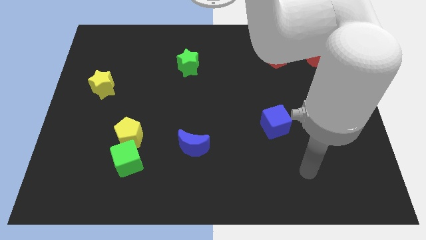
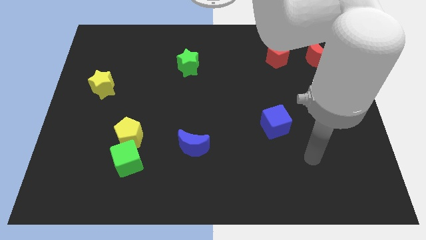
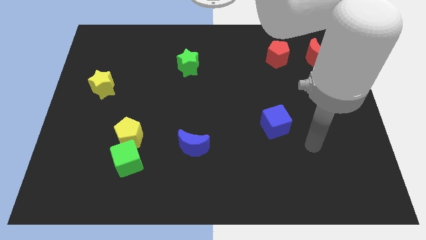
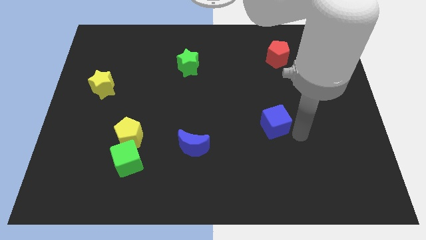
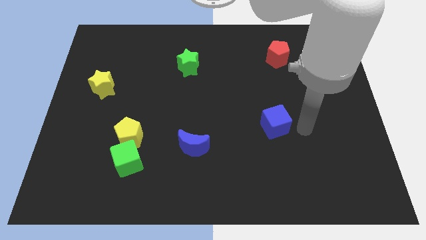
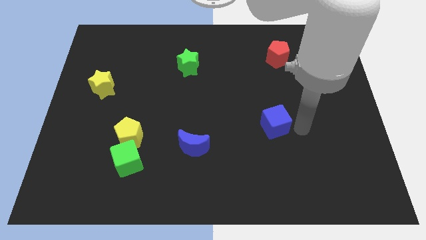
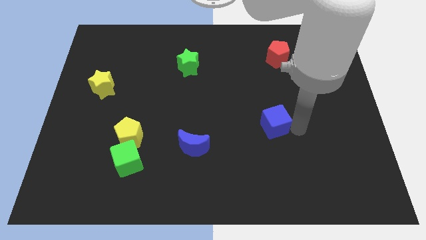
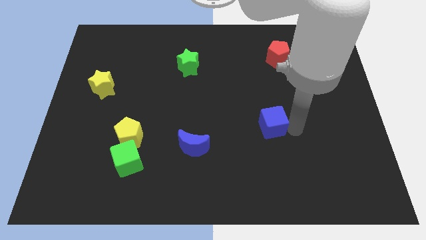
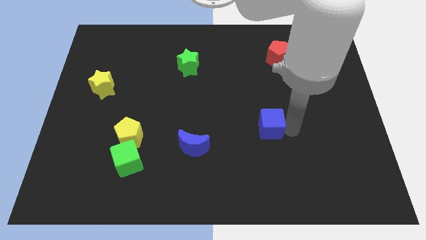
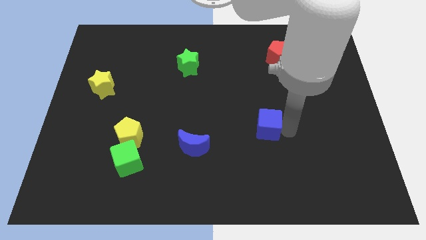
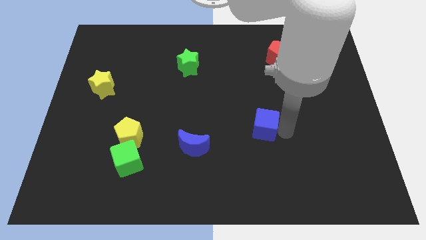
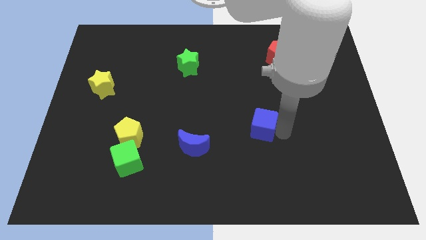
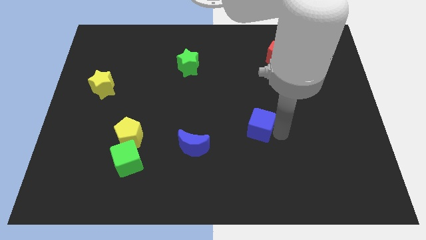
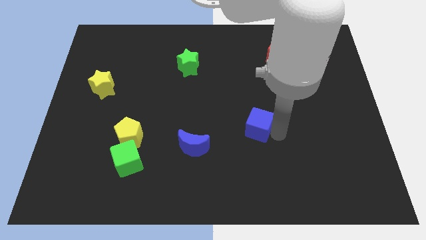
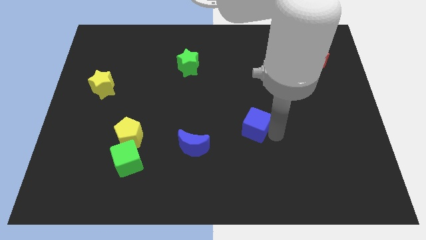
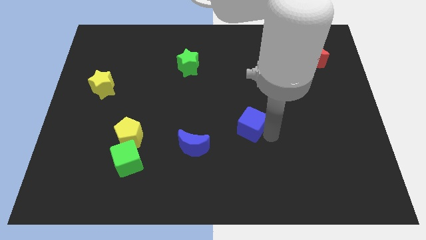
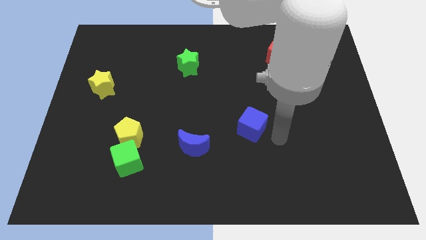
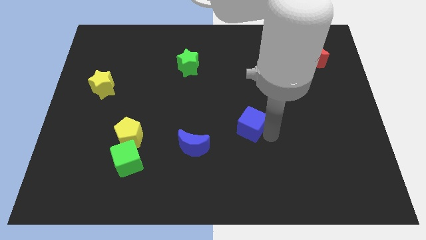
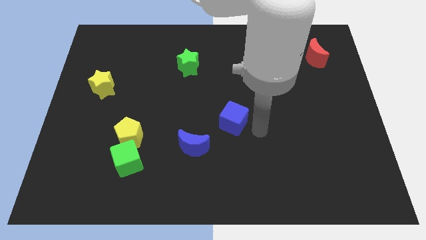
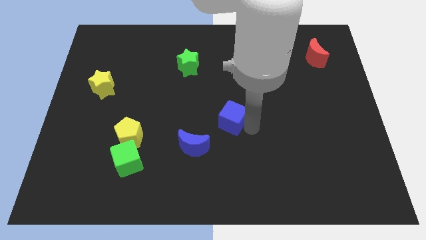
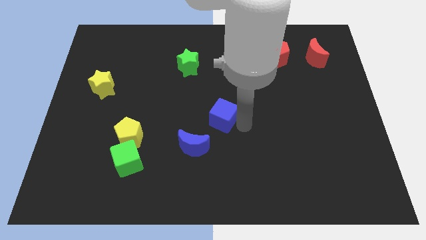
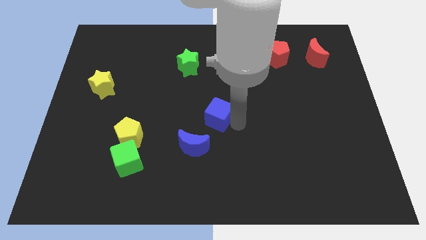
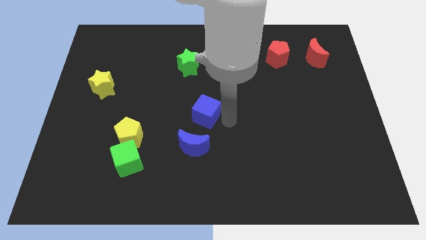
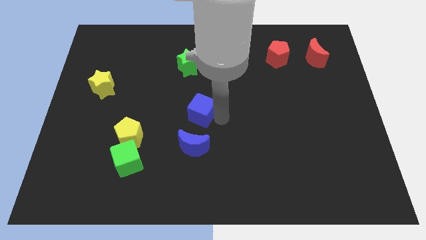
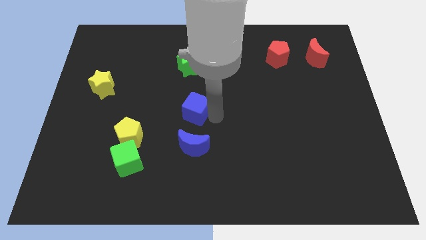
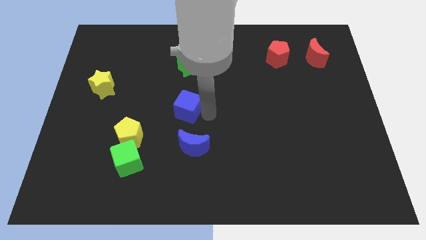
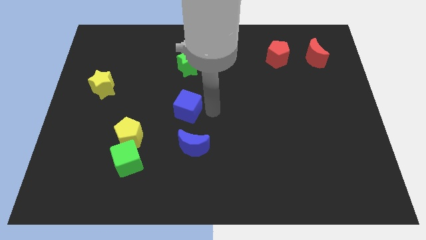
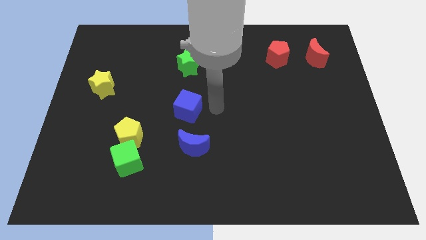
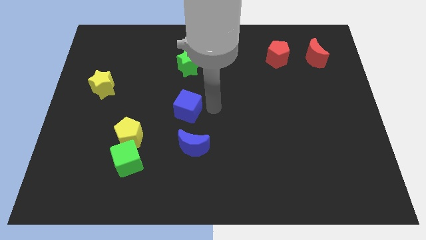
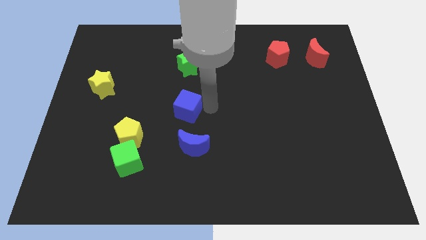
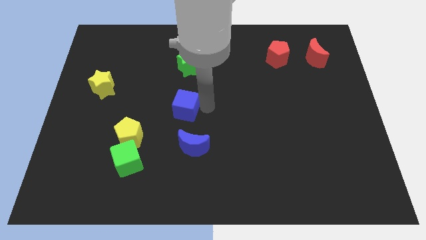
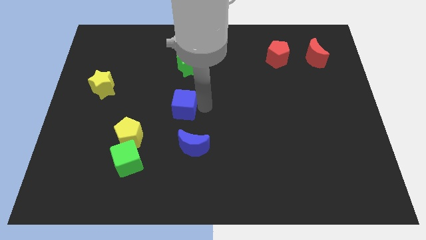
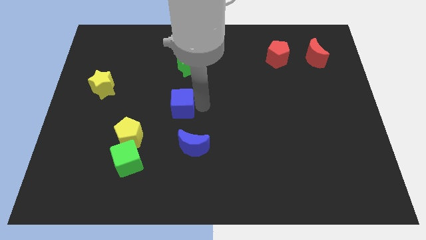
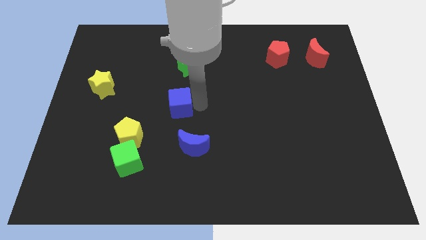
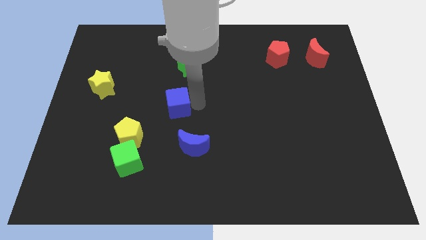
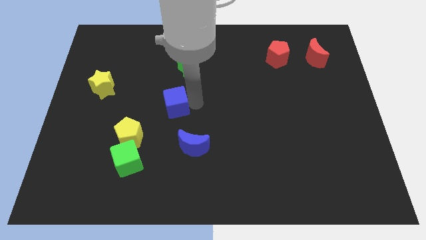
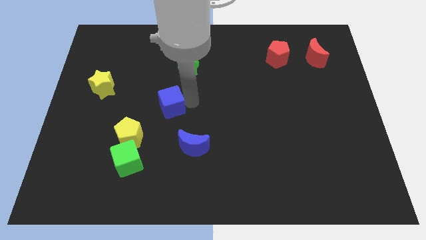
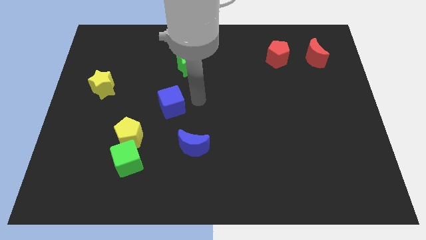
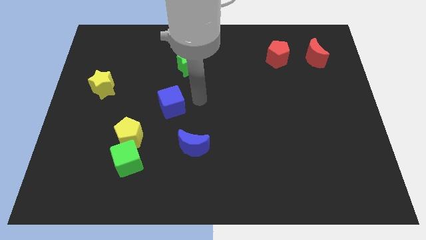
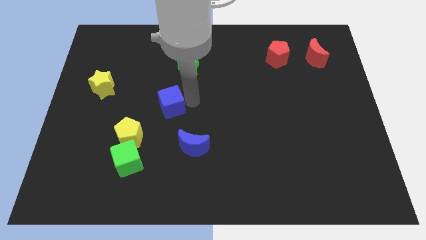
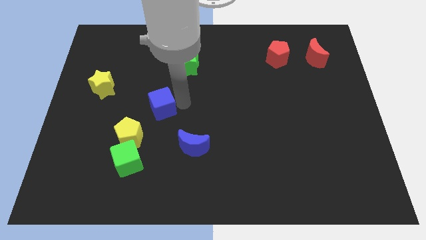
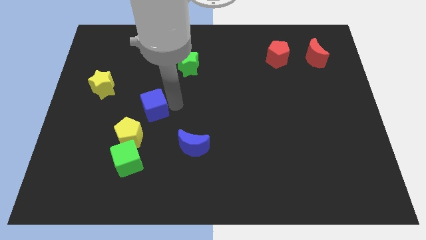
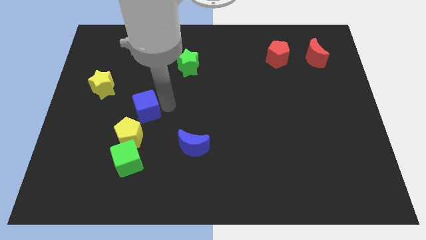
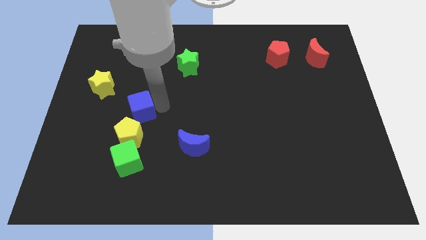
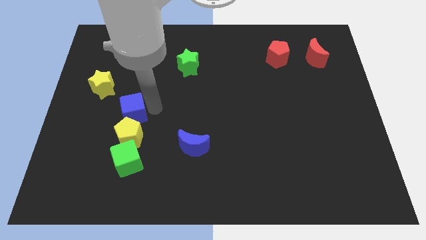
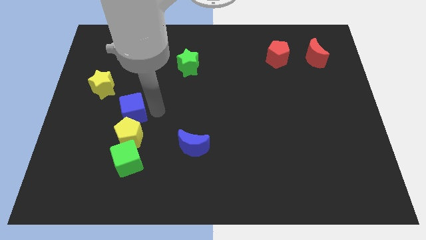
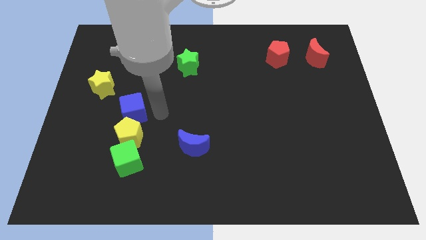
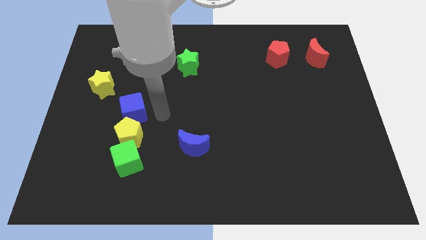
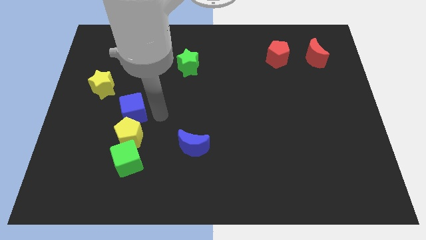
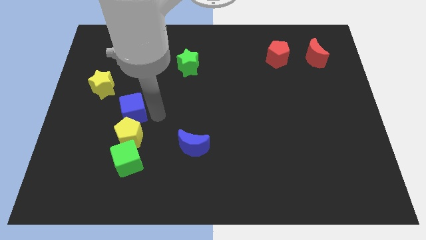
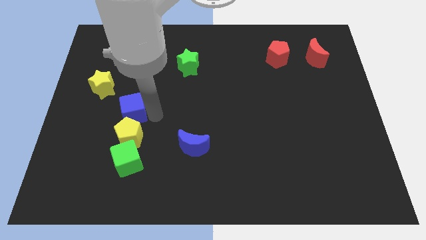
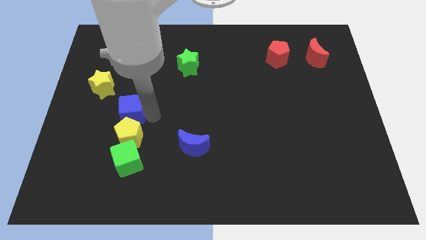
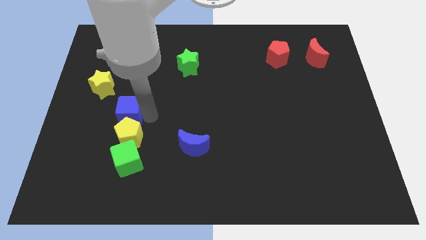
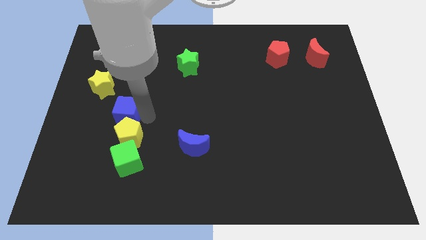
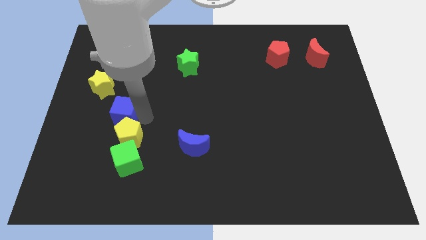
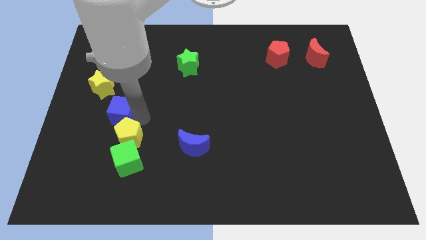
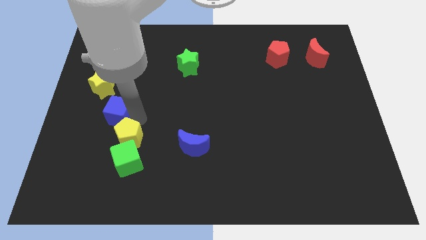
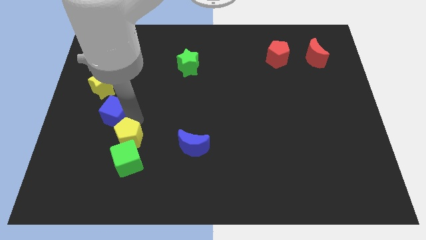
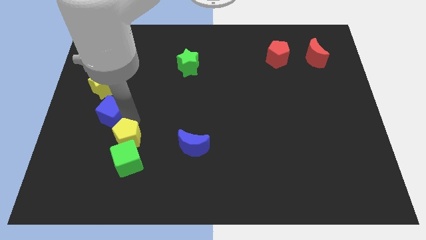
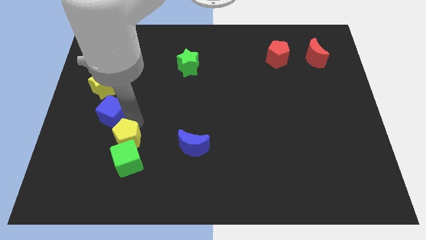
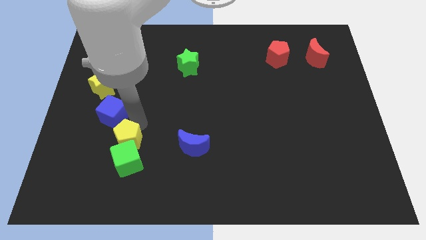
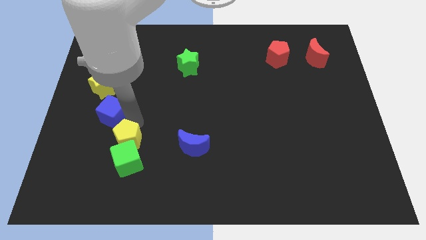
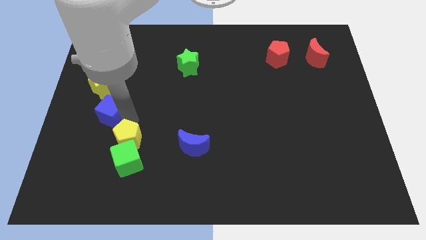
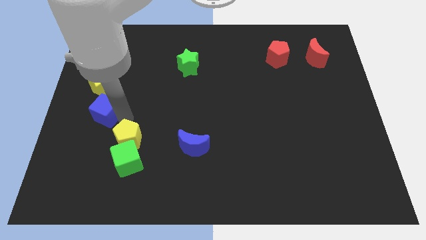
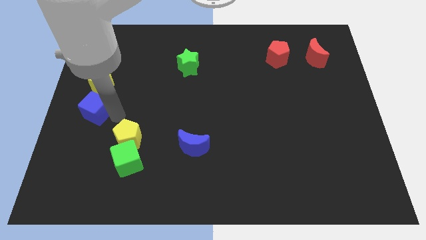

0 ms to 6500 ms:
move the blue cube to the left side
